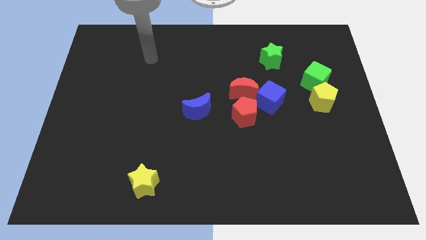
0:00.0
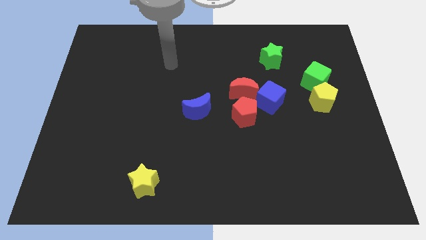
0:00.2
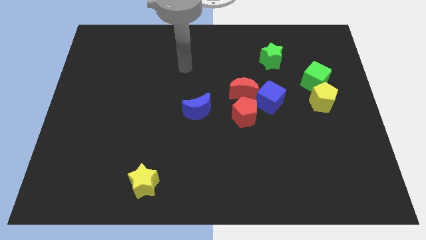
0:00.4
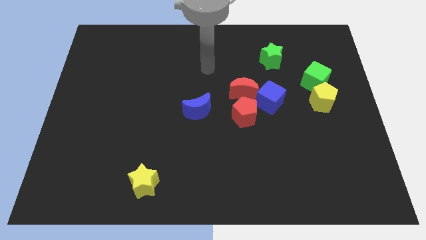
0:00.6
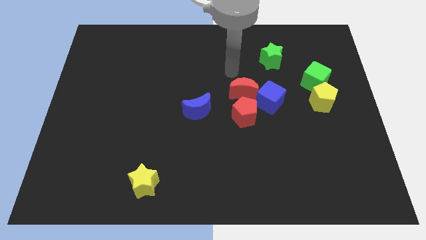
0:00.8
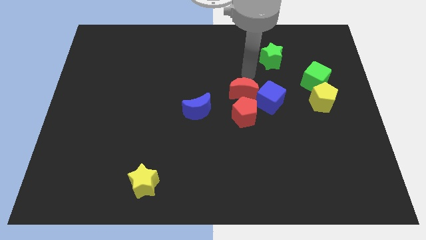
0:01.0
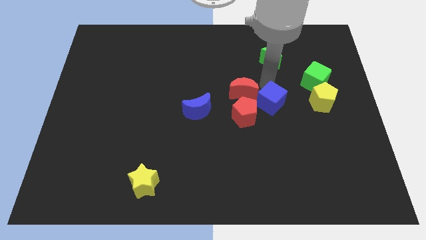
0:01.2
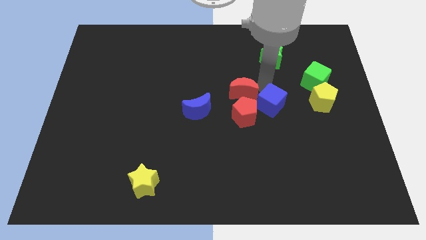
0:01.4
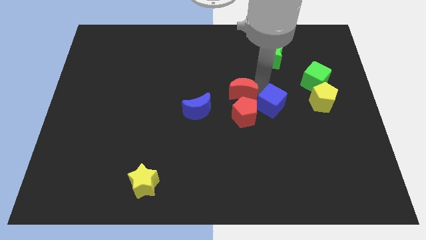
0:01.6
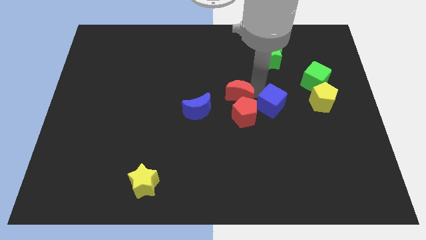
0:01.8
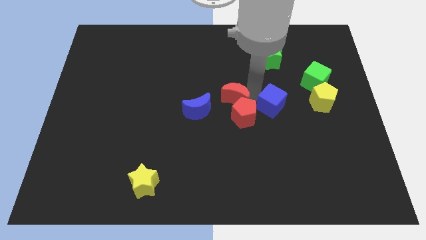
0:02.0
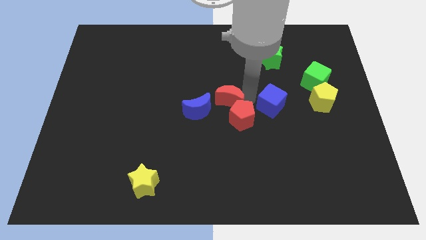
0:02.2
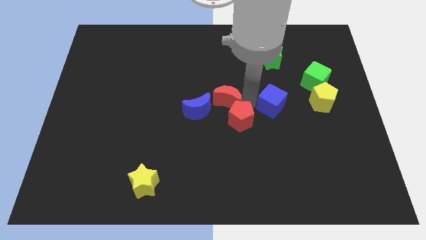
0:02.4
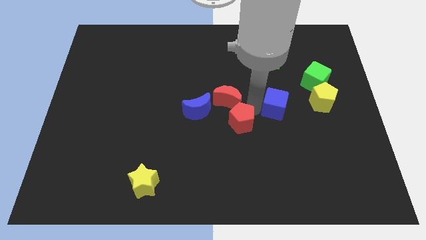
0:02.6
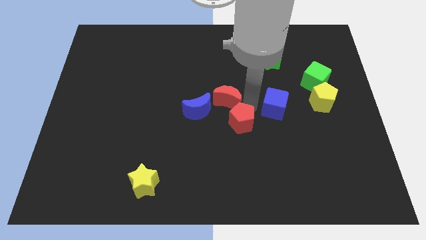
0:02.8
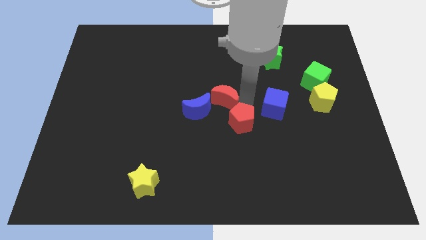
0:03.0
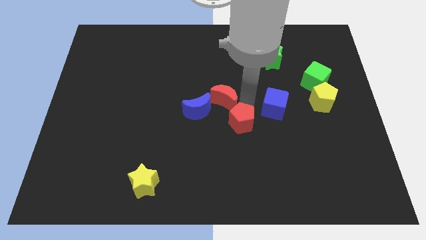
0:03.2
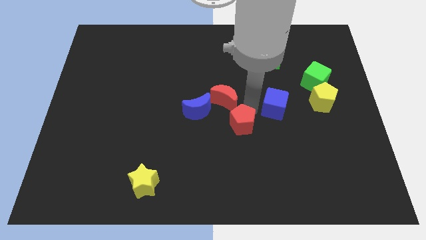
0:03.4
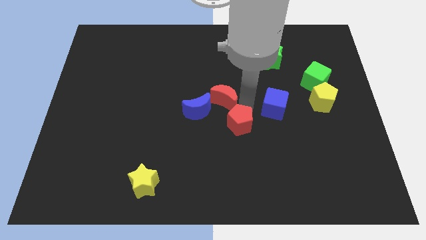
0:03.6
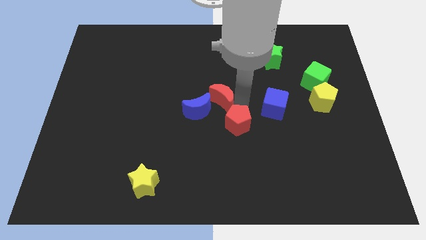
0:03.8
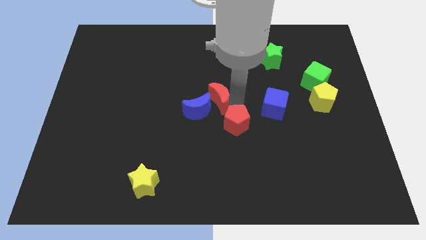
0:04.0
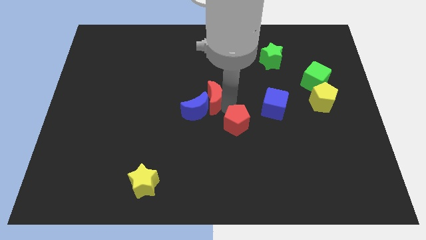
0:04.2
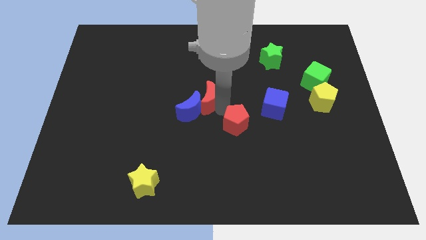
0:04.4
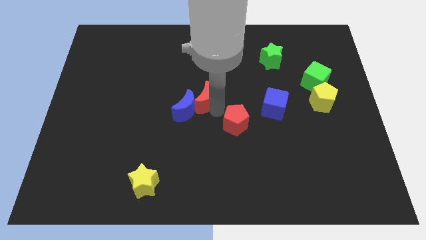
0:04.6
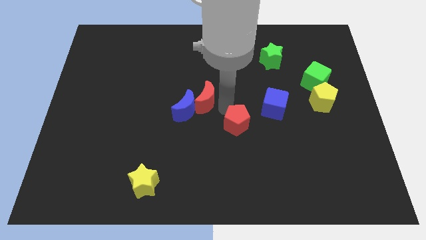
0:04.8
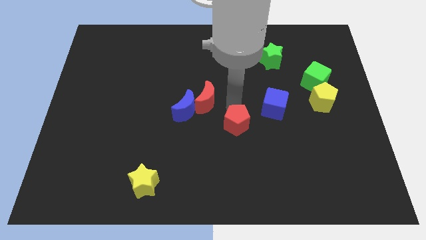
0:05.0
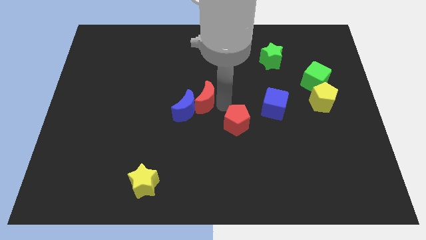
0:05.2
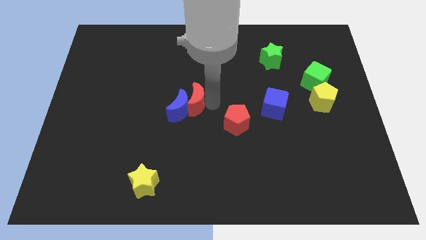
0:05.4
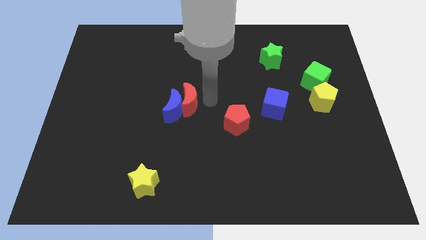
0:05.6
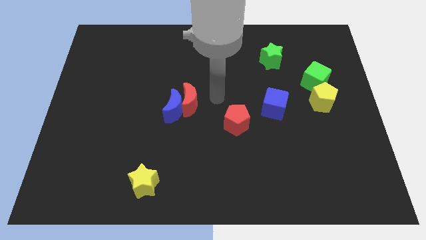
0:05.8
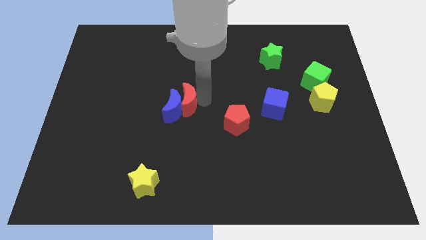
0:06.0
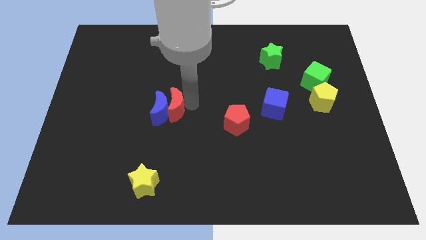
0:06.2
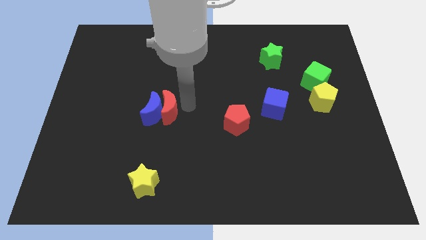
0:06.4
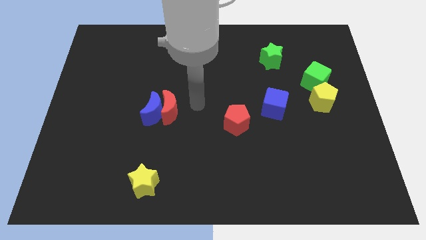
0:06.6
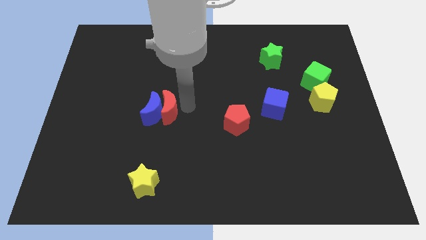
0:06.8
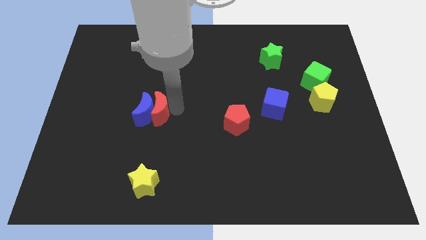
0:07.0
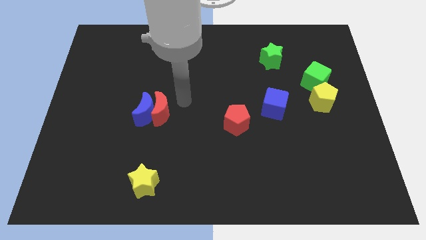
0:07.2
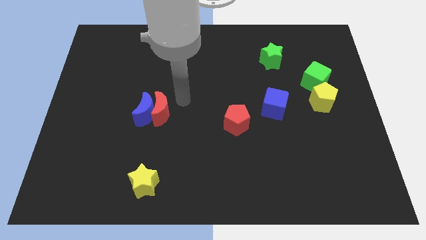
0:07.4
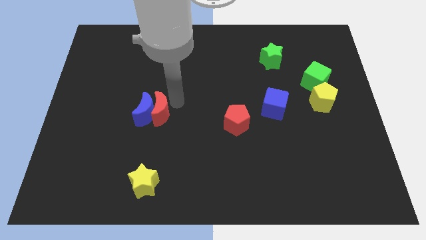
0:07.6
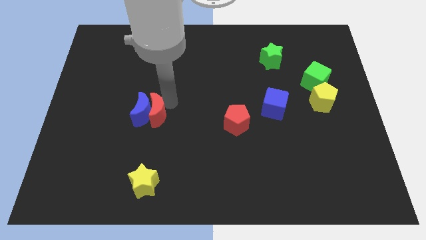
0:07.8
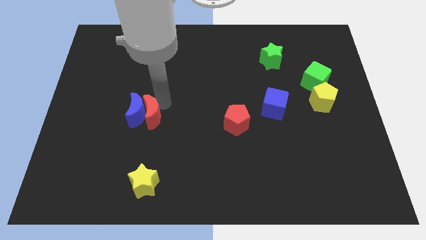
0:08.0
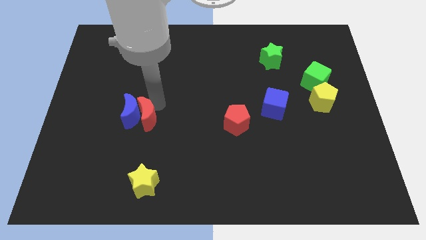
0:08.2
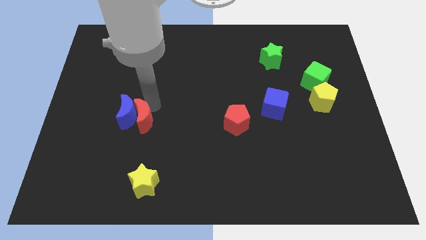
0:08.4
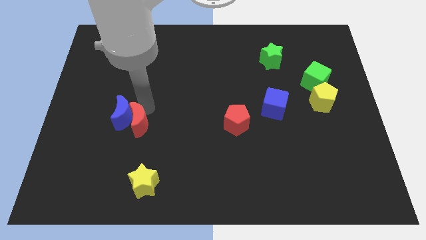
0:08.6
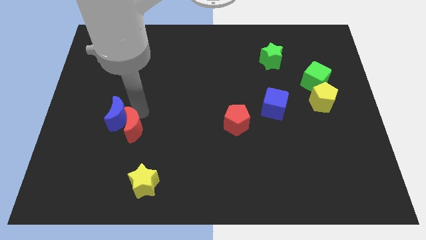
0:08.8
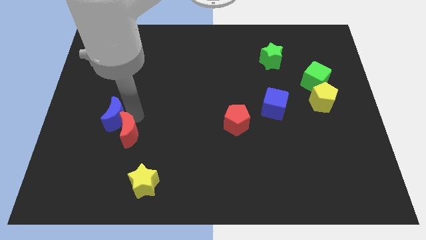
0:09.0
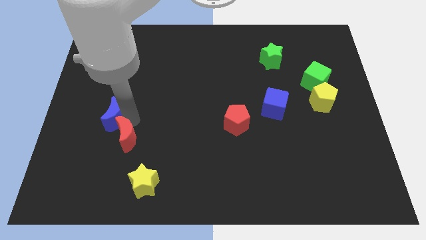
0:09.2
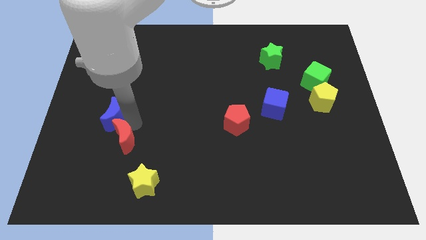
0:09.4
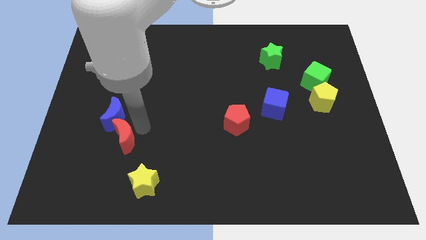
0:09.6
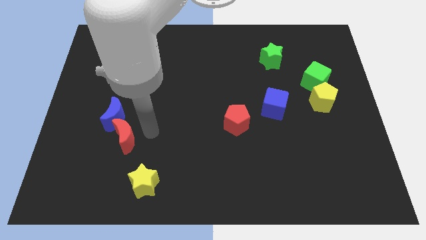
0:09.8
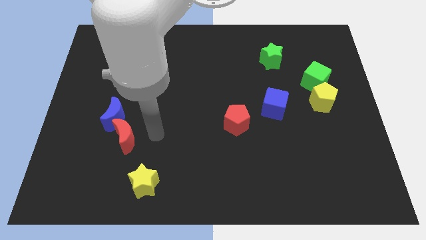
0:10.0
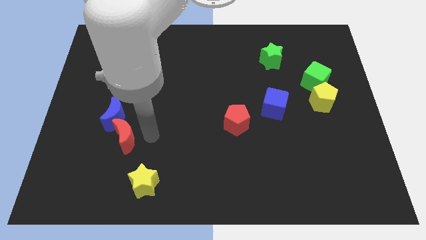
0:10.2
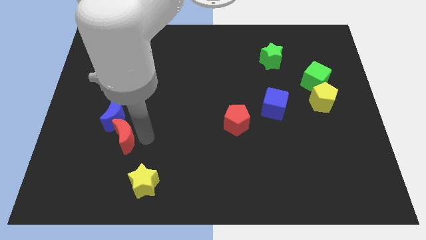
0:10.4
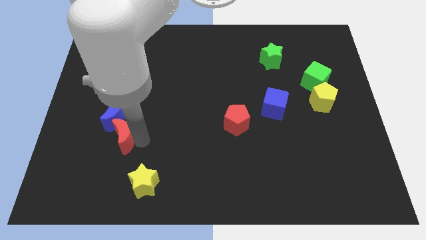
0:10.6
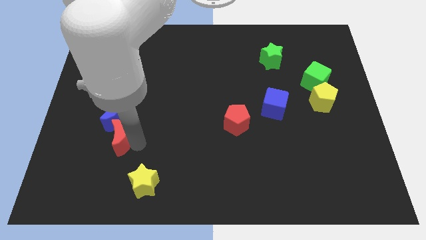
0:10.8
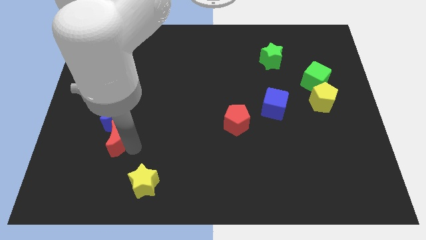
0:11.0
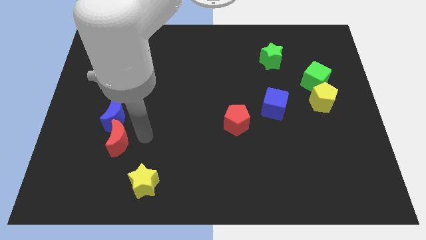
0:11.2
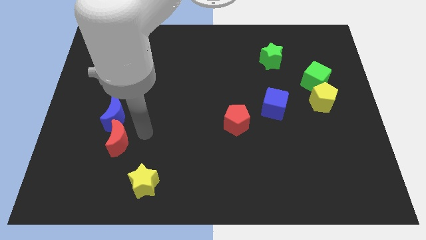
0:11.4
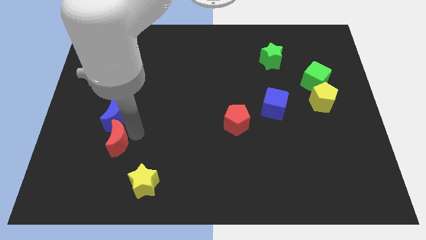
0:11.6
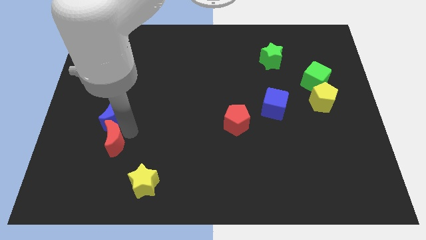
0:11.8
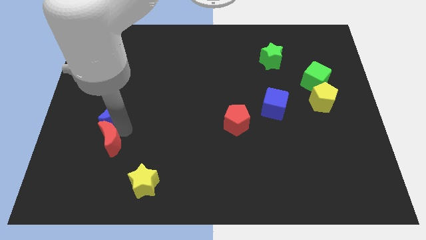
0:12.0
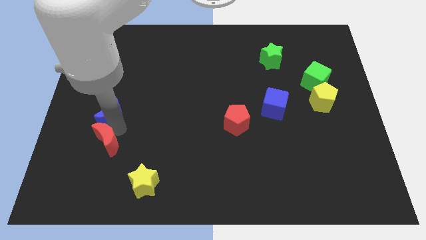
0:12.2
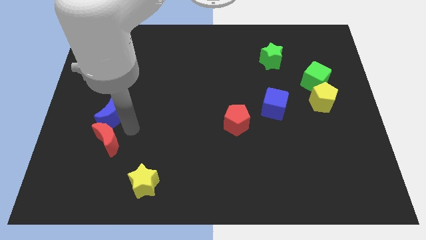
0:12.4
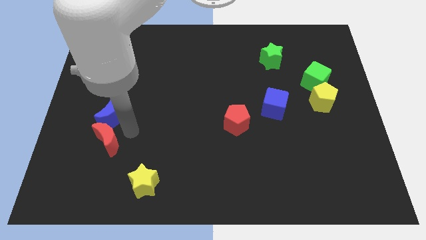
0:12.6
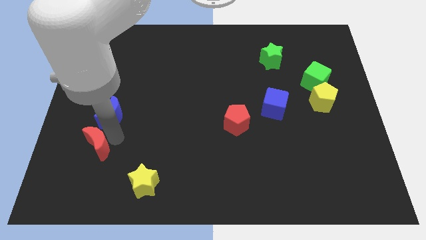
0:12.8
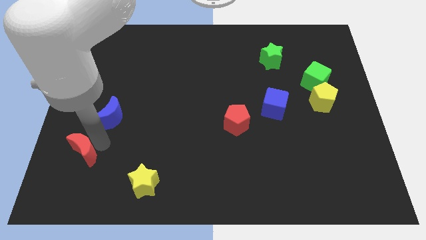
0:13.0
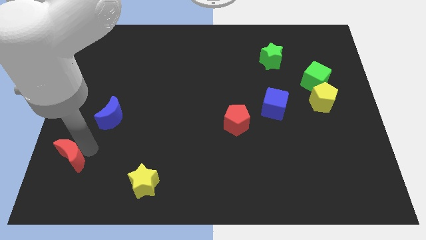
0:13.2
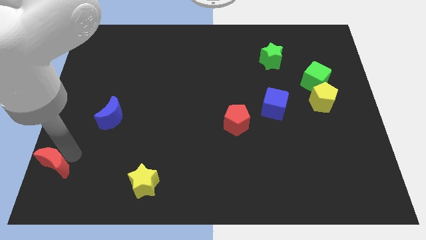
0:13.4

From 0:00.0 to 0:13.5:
slide the red moon to the lower left corner
